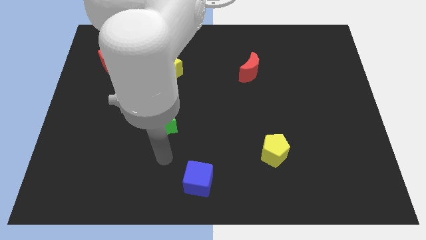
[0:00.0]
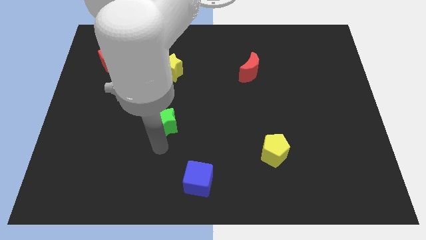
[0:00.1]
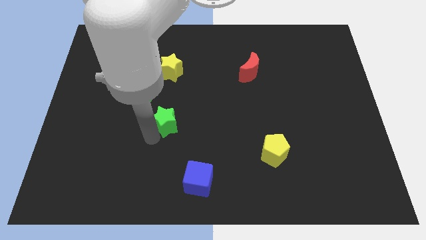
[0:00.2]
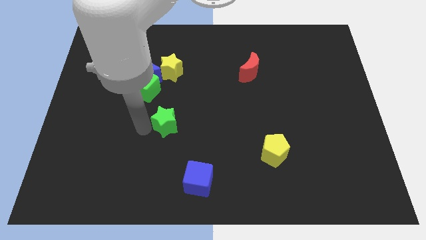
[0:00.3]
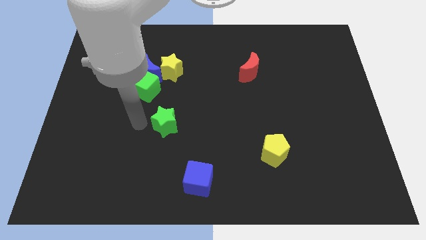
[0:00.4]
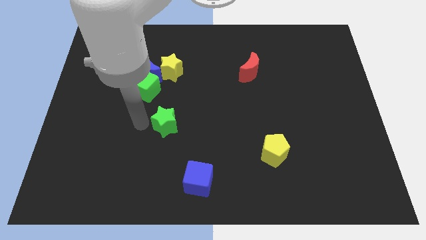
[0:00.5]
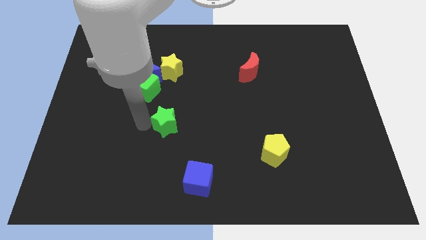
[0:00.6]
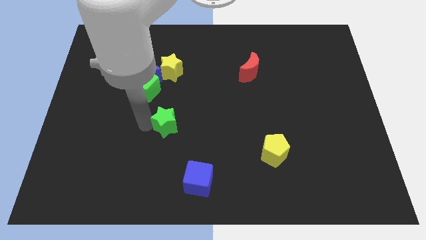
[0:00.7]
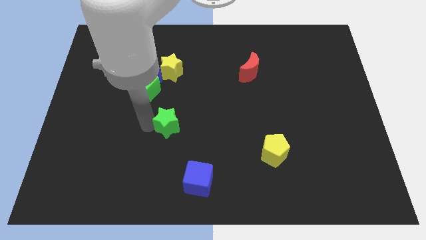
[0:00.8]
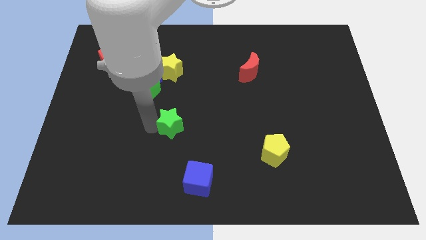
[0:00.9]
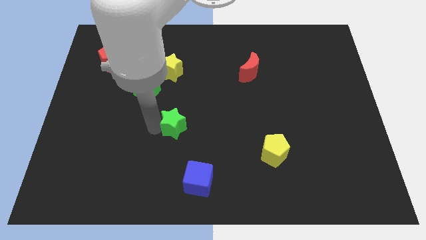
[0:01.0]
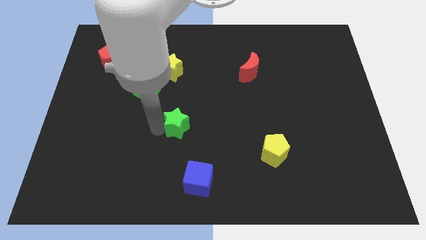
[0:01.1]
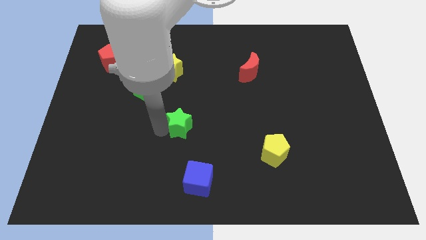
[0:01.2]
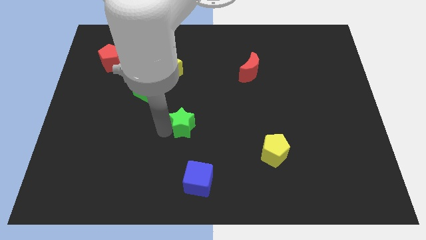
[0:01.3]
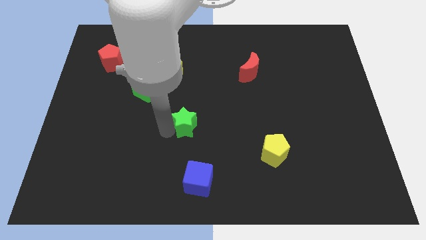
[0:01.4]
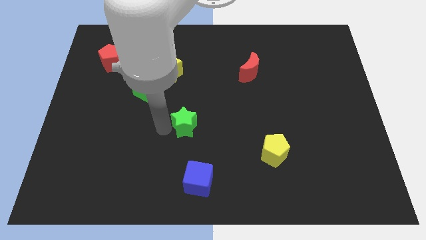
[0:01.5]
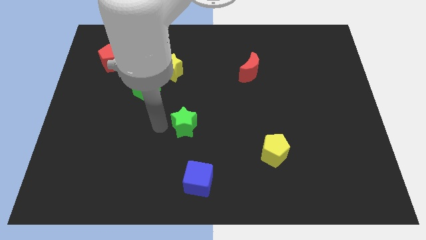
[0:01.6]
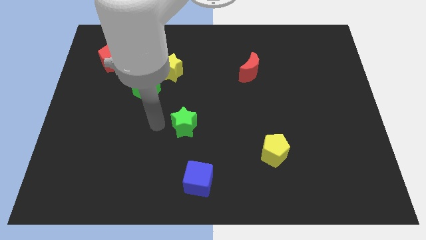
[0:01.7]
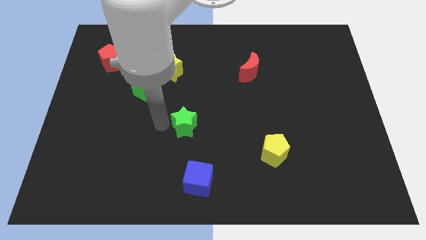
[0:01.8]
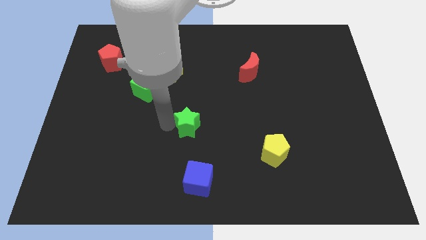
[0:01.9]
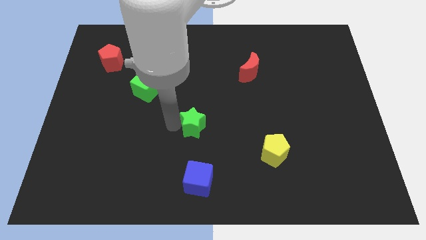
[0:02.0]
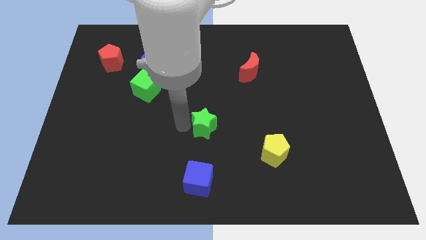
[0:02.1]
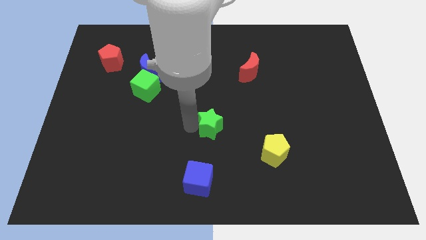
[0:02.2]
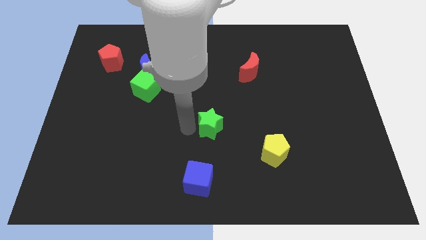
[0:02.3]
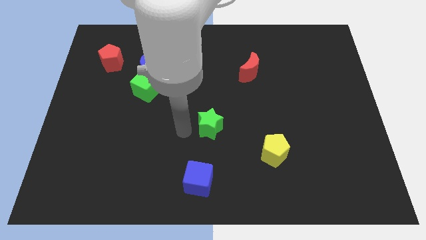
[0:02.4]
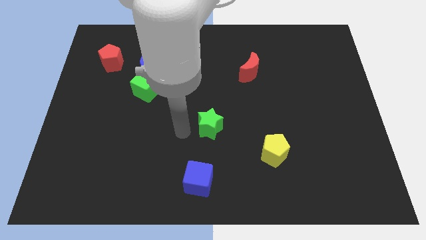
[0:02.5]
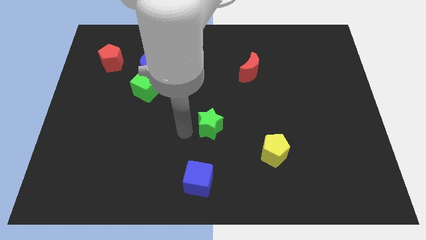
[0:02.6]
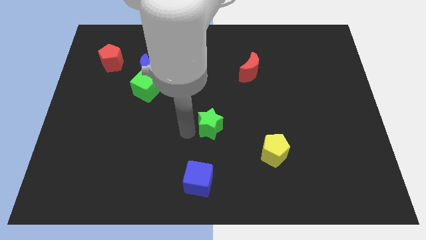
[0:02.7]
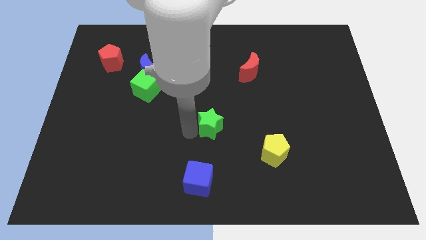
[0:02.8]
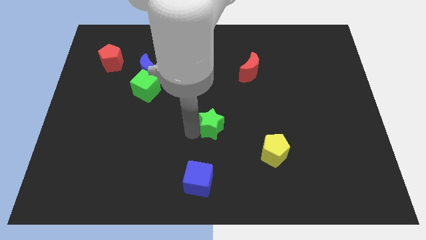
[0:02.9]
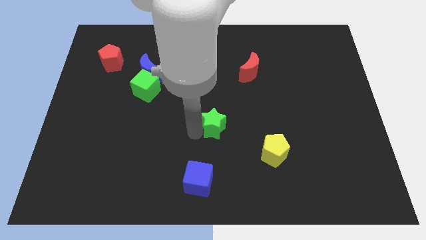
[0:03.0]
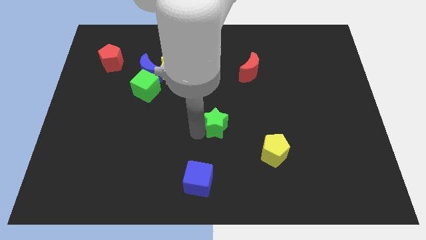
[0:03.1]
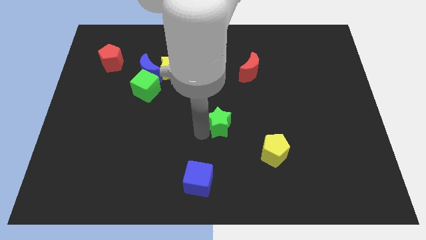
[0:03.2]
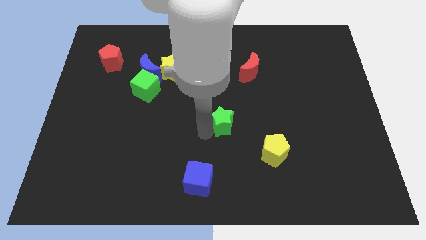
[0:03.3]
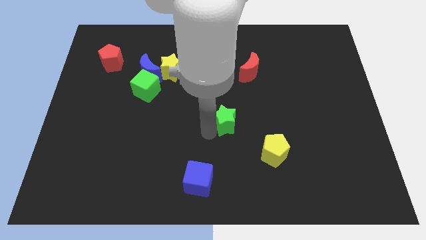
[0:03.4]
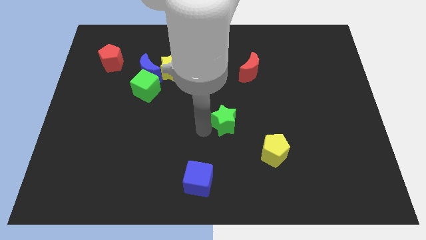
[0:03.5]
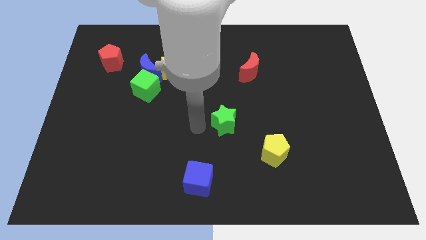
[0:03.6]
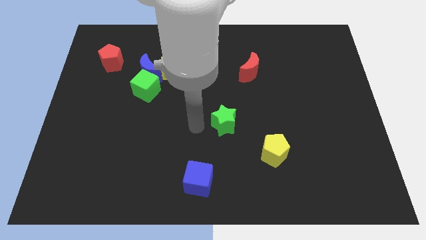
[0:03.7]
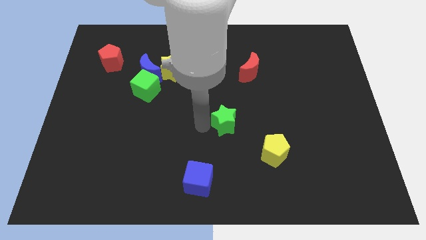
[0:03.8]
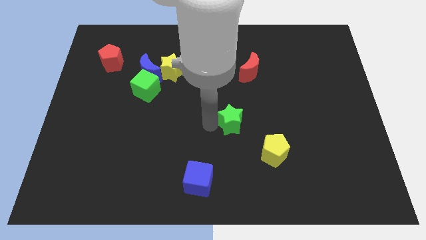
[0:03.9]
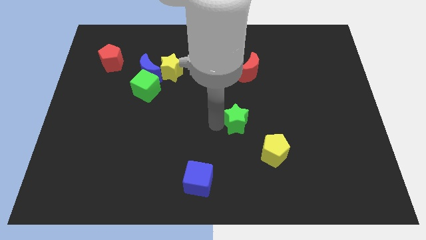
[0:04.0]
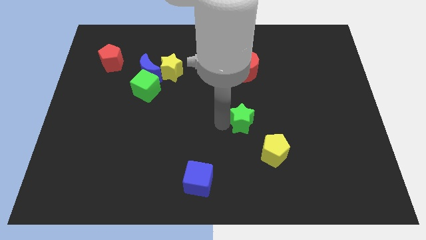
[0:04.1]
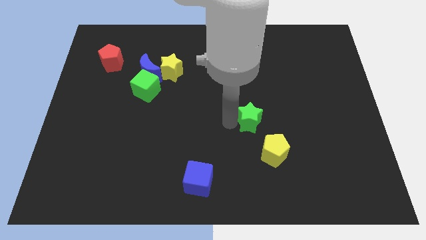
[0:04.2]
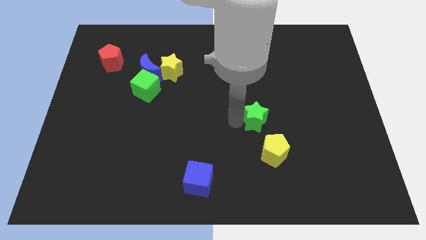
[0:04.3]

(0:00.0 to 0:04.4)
slide the green star to the right

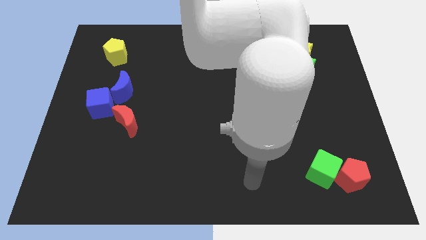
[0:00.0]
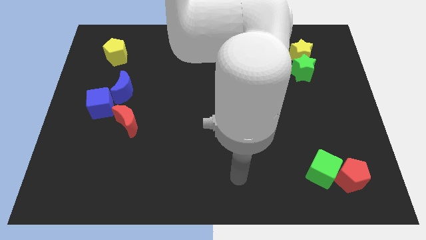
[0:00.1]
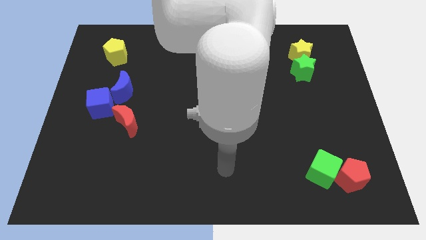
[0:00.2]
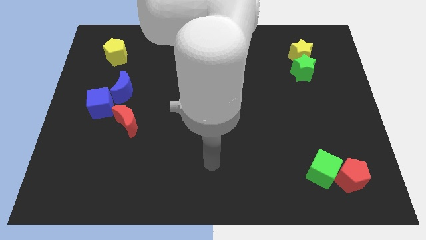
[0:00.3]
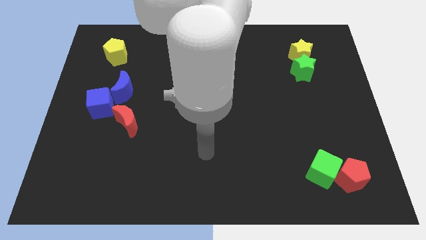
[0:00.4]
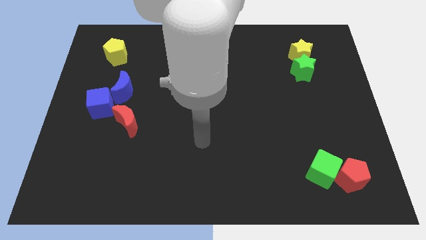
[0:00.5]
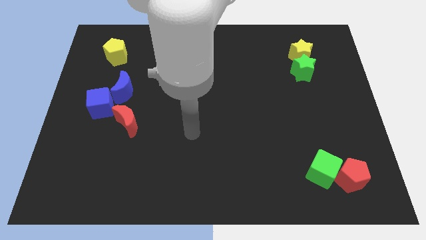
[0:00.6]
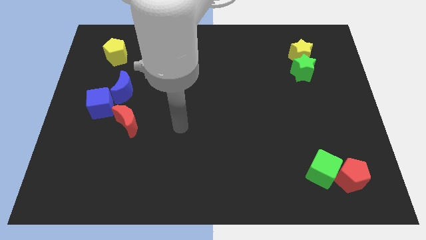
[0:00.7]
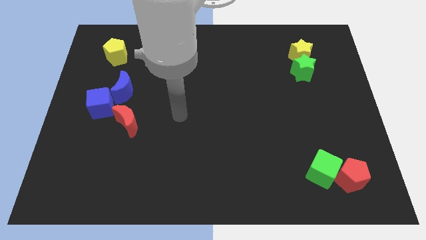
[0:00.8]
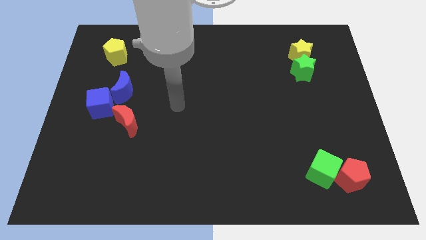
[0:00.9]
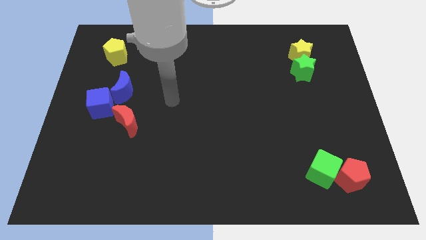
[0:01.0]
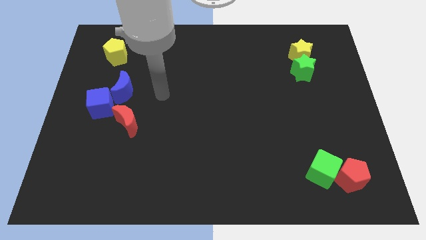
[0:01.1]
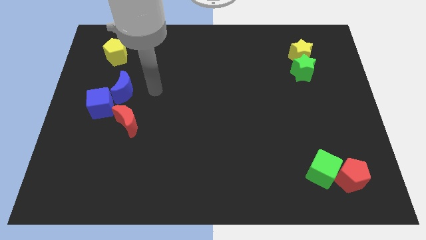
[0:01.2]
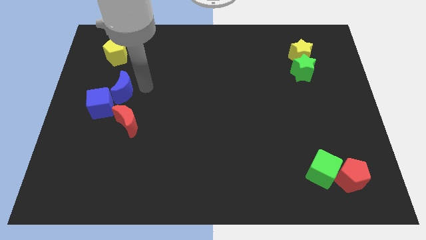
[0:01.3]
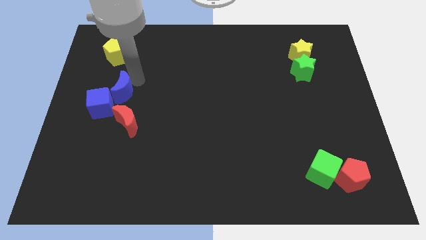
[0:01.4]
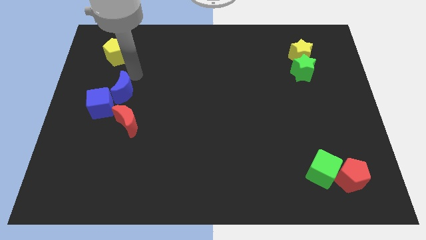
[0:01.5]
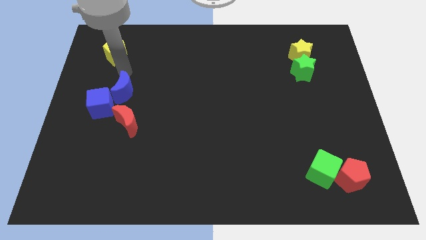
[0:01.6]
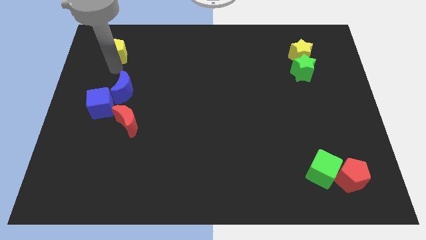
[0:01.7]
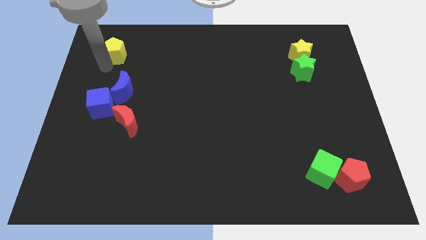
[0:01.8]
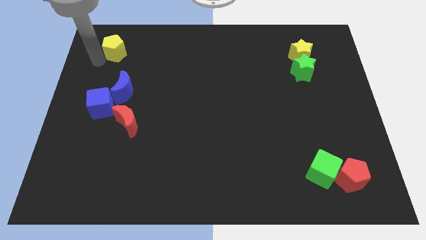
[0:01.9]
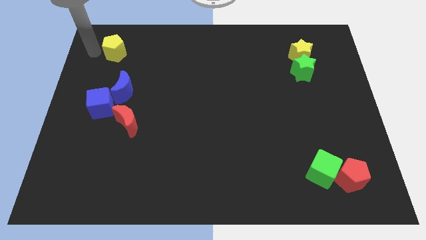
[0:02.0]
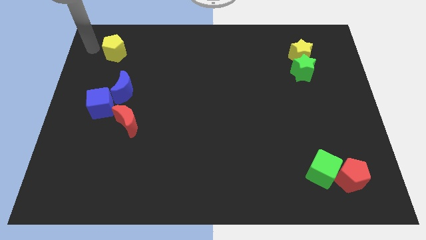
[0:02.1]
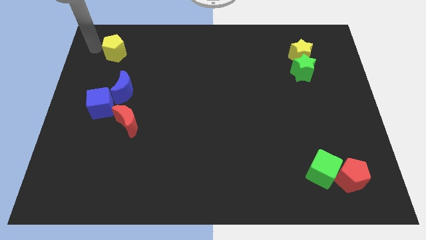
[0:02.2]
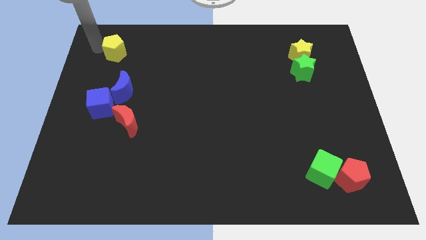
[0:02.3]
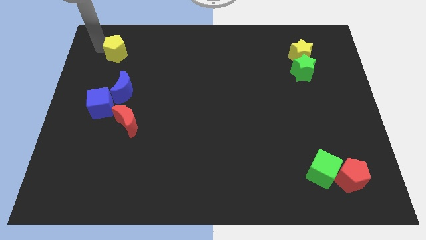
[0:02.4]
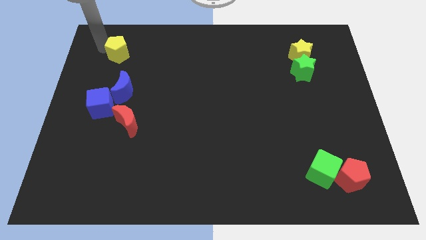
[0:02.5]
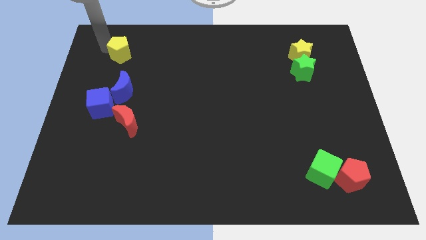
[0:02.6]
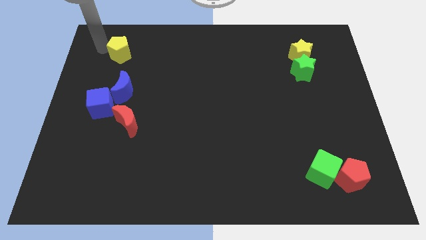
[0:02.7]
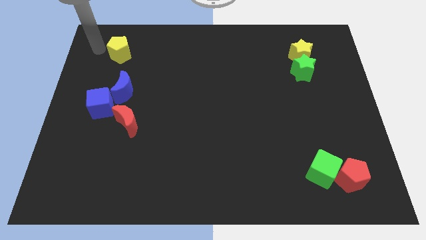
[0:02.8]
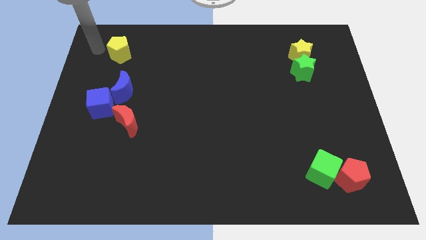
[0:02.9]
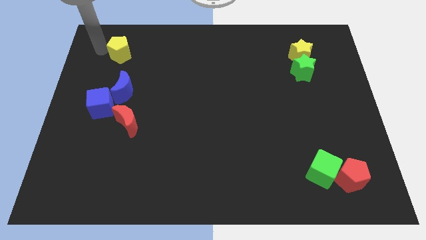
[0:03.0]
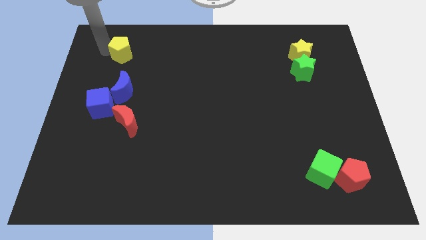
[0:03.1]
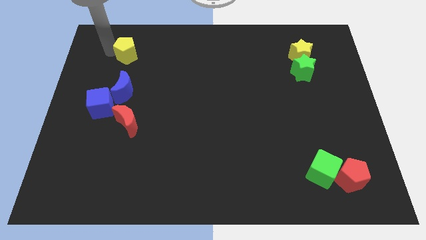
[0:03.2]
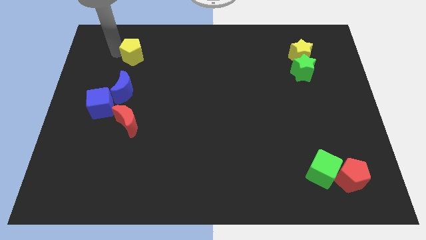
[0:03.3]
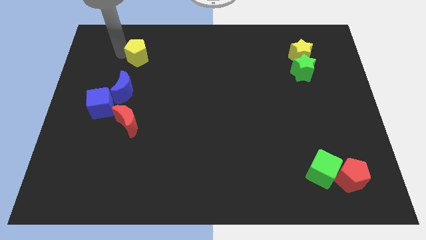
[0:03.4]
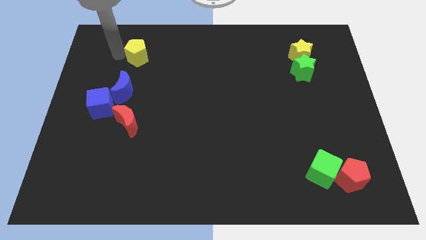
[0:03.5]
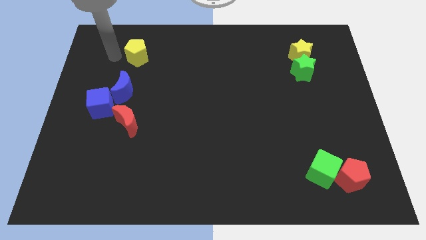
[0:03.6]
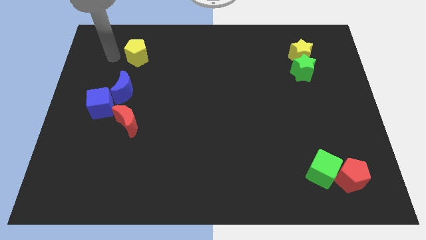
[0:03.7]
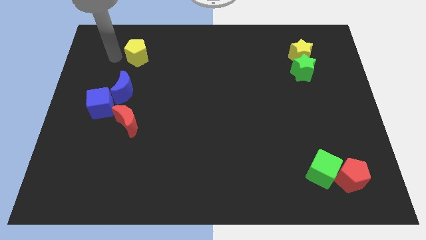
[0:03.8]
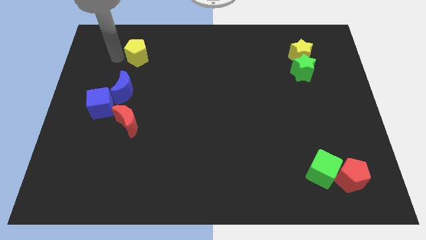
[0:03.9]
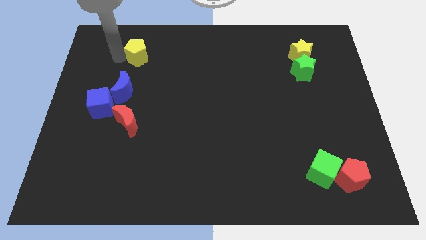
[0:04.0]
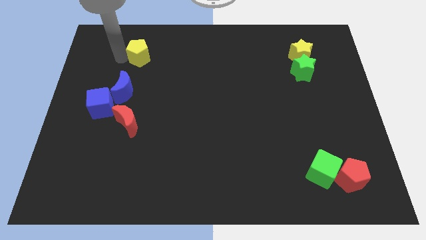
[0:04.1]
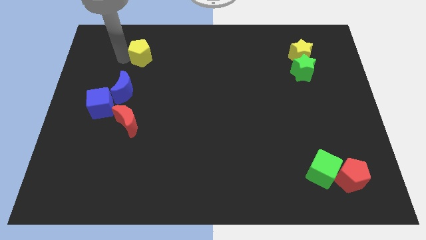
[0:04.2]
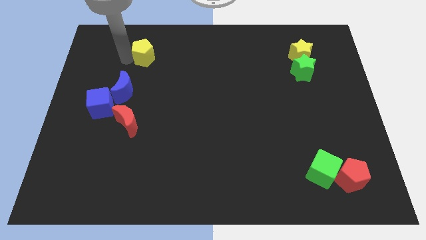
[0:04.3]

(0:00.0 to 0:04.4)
slide the yellow pentagon slightly right
